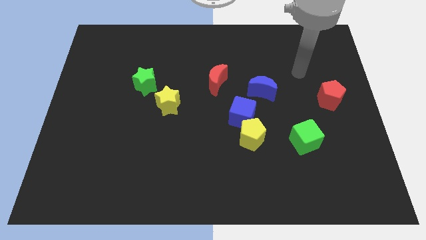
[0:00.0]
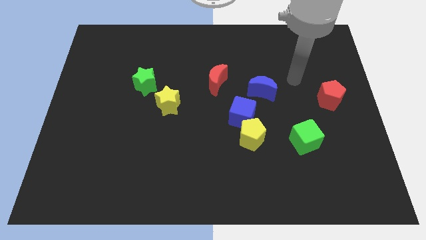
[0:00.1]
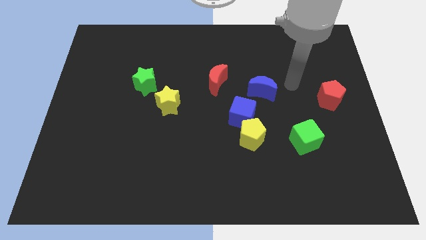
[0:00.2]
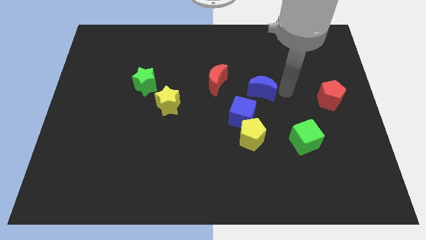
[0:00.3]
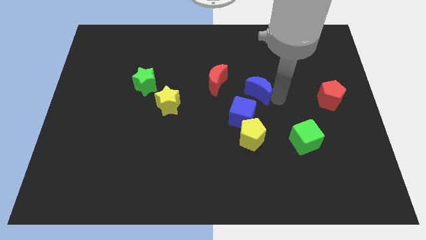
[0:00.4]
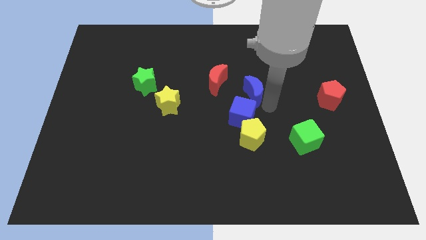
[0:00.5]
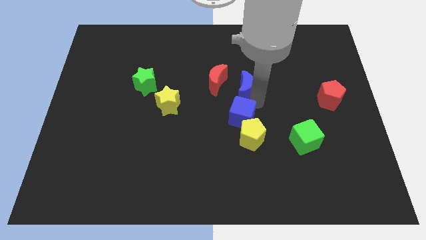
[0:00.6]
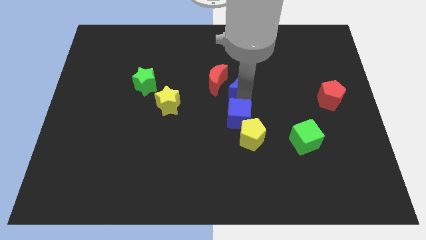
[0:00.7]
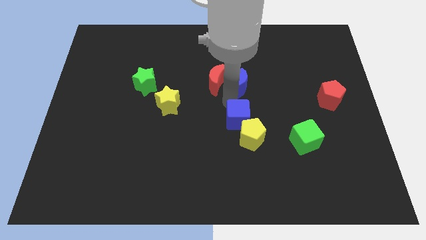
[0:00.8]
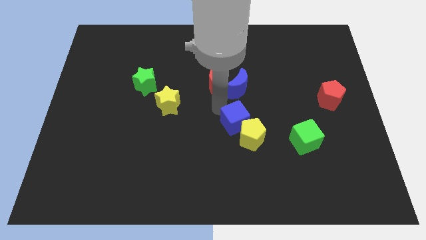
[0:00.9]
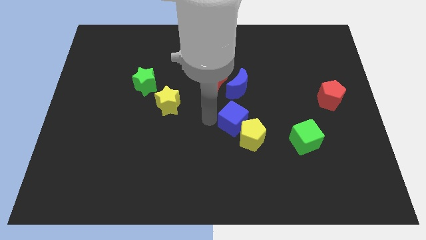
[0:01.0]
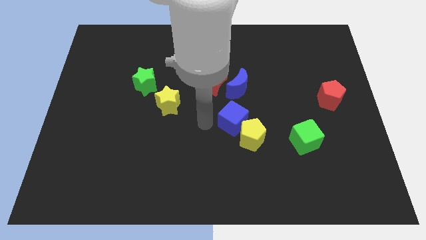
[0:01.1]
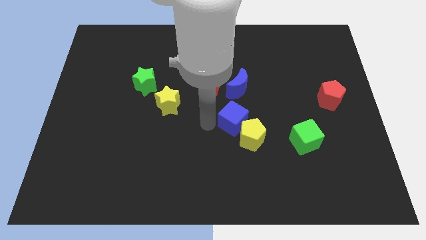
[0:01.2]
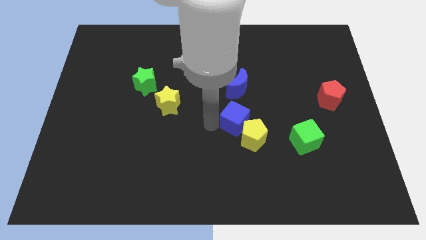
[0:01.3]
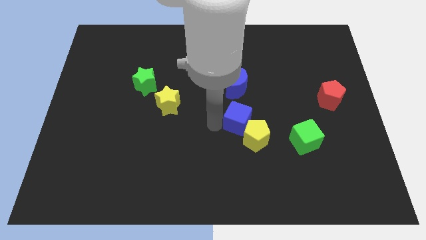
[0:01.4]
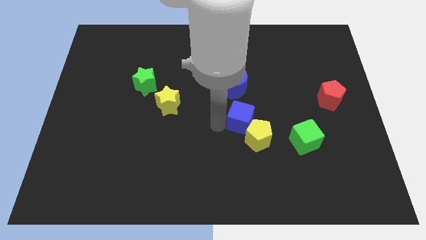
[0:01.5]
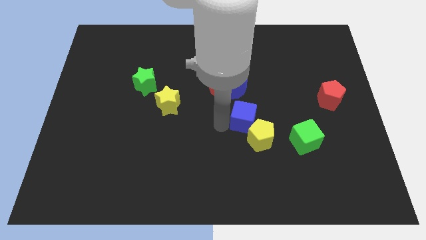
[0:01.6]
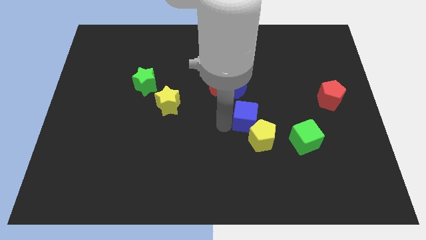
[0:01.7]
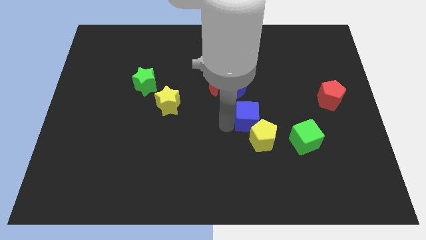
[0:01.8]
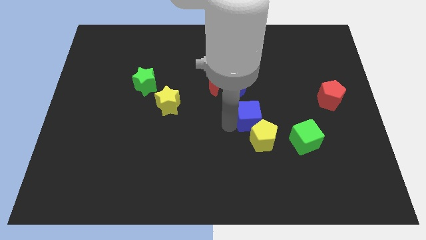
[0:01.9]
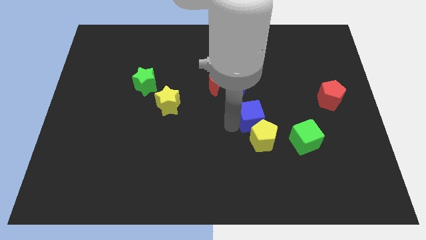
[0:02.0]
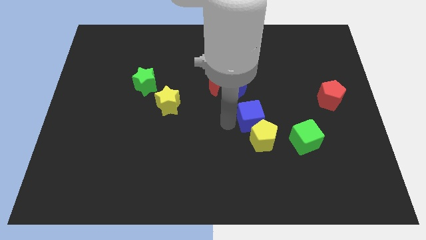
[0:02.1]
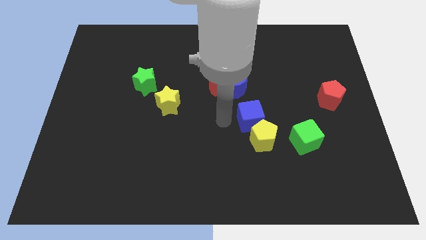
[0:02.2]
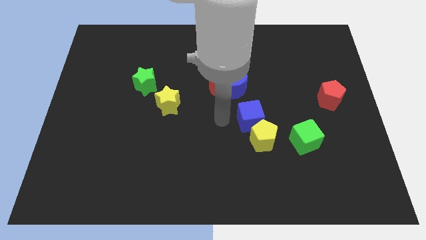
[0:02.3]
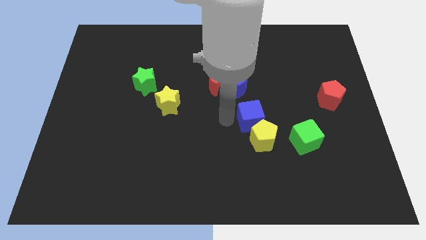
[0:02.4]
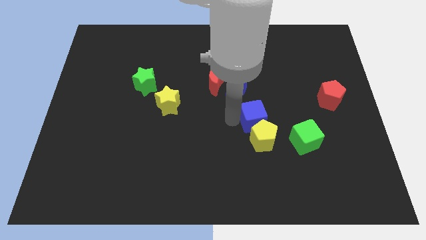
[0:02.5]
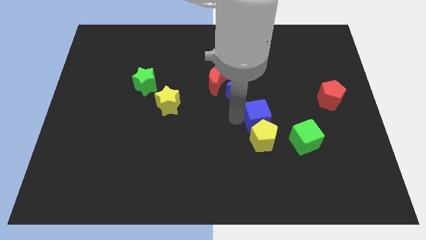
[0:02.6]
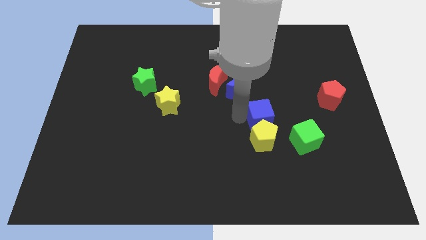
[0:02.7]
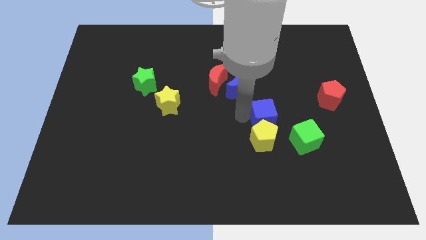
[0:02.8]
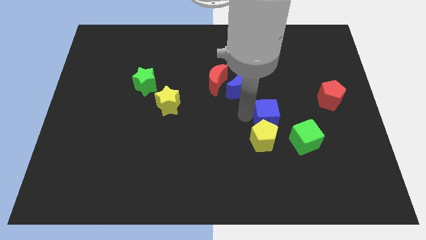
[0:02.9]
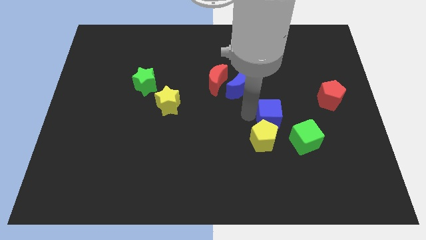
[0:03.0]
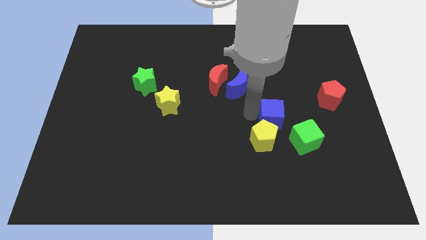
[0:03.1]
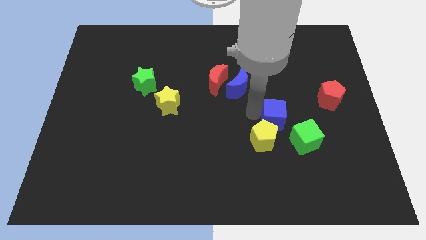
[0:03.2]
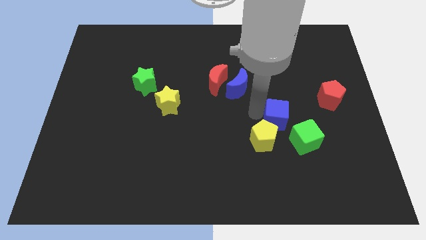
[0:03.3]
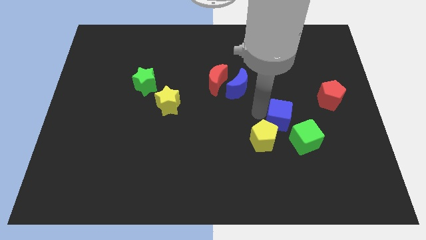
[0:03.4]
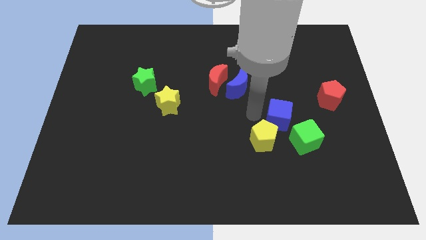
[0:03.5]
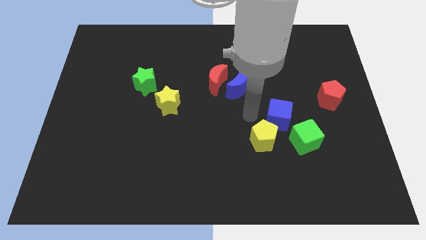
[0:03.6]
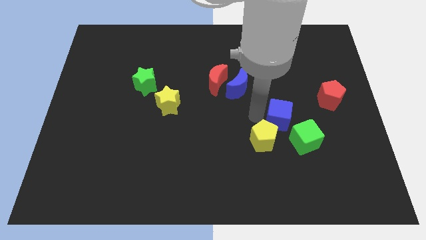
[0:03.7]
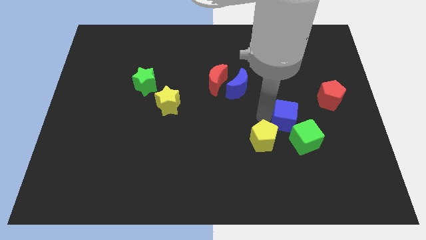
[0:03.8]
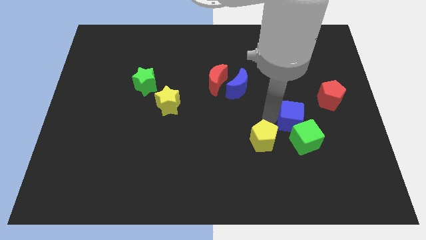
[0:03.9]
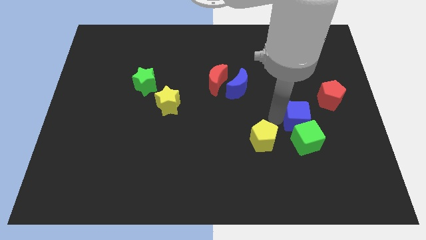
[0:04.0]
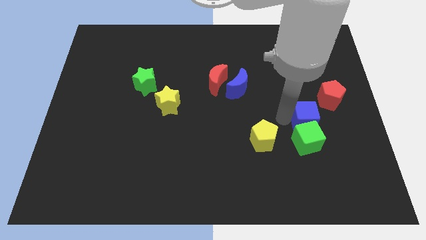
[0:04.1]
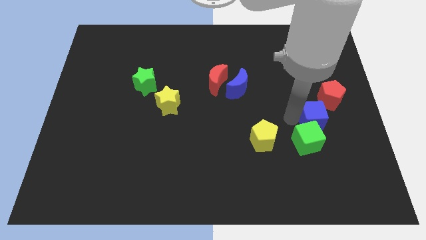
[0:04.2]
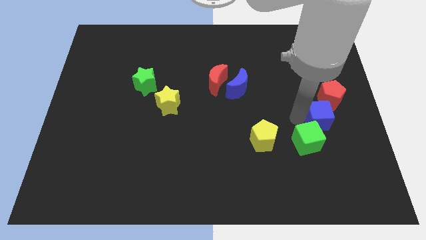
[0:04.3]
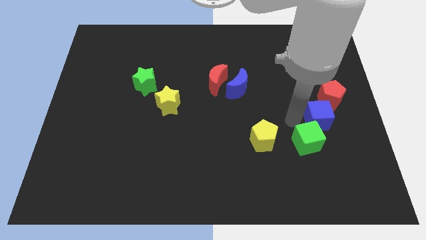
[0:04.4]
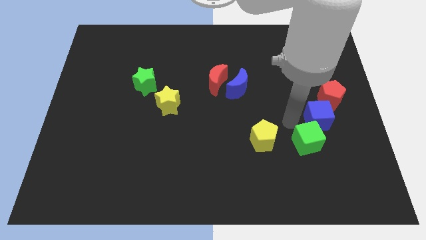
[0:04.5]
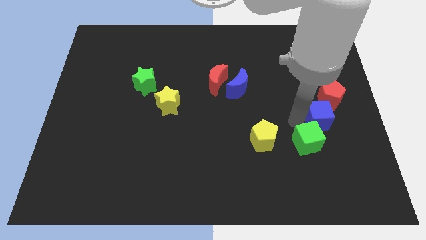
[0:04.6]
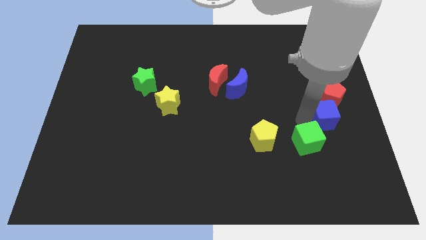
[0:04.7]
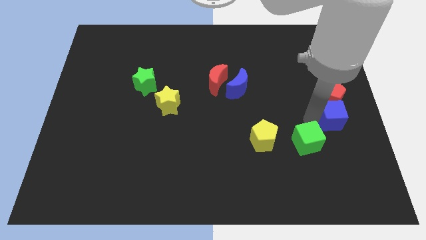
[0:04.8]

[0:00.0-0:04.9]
slide the blue cube to the center right

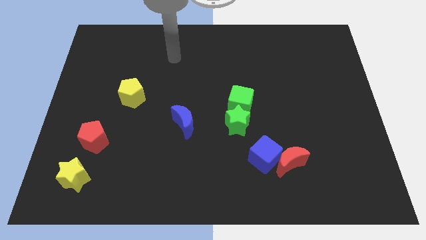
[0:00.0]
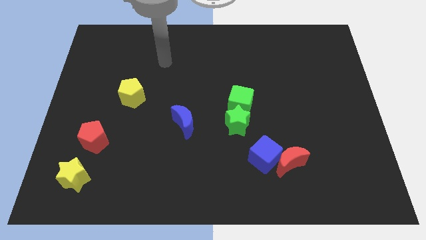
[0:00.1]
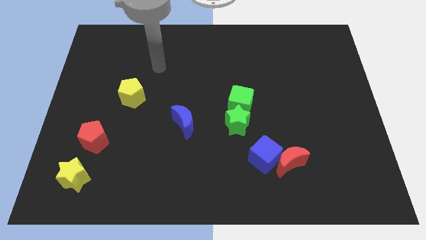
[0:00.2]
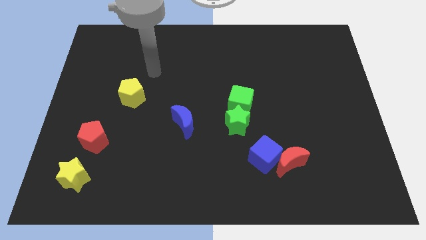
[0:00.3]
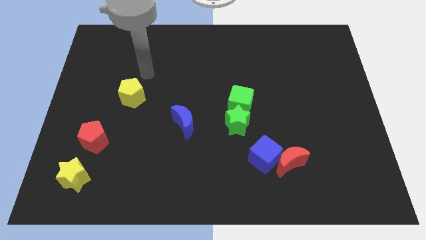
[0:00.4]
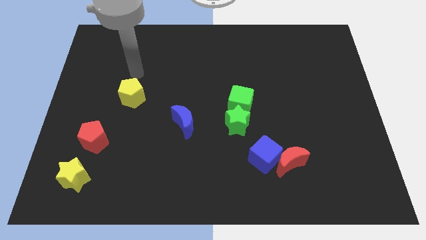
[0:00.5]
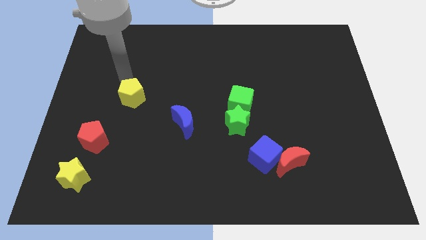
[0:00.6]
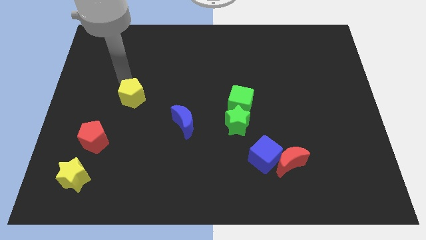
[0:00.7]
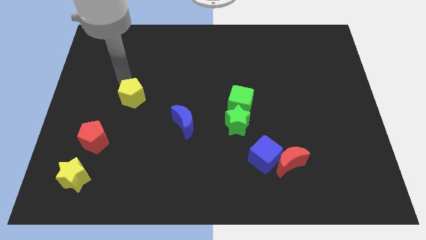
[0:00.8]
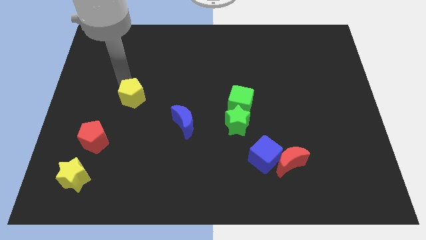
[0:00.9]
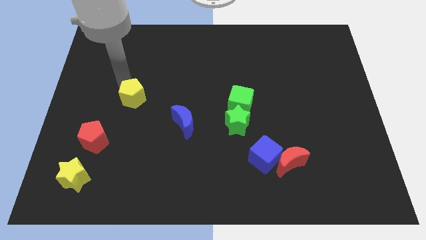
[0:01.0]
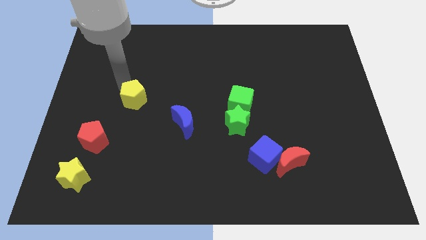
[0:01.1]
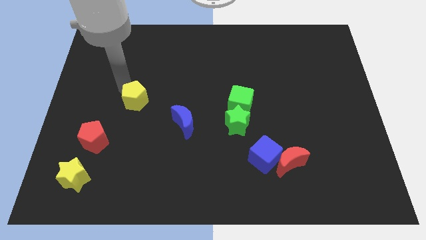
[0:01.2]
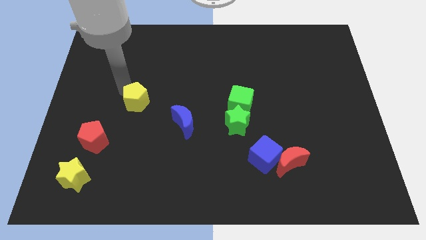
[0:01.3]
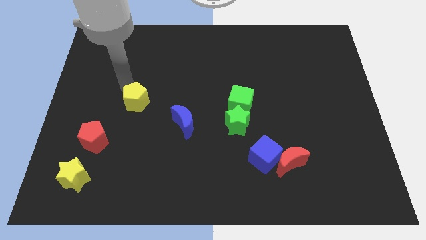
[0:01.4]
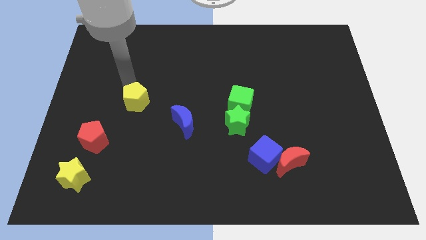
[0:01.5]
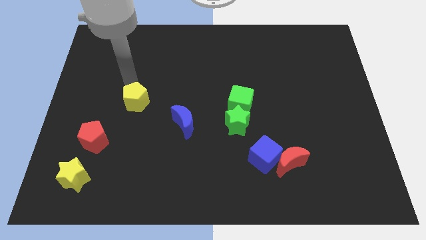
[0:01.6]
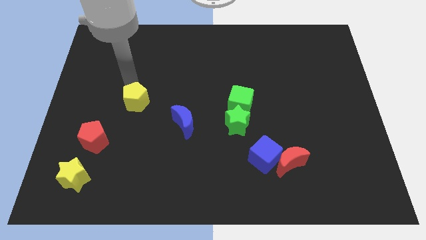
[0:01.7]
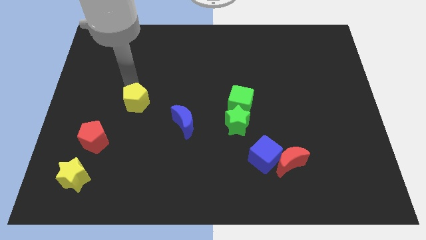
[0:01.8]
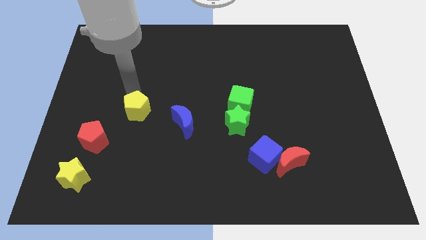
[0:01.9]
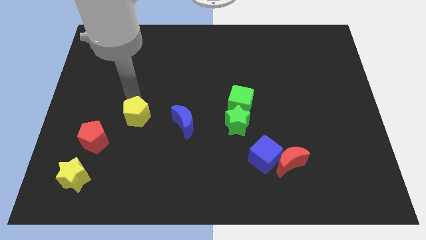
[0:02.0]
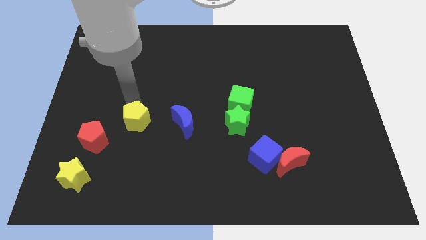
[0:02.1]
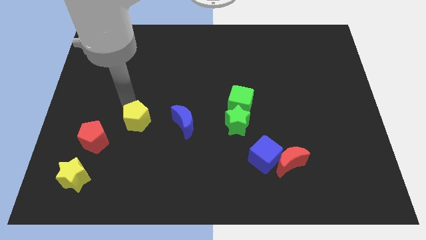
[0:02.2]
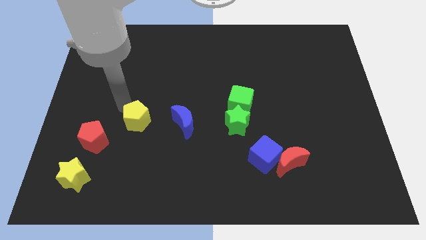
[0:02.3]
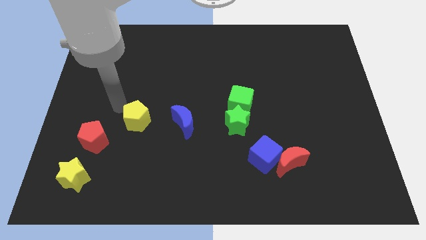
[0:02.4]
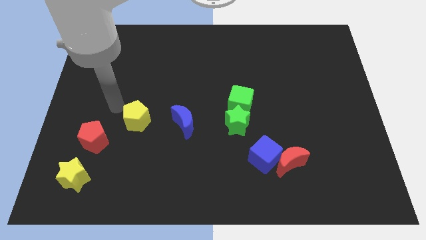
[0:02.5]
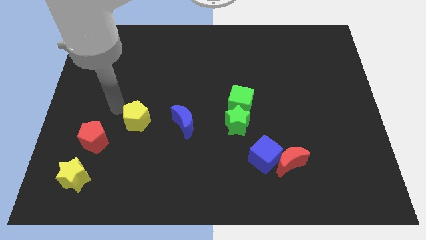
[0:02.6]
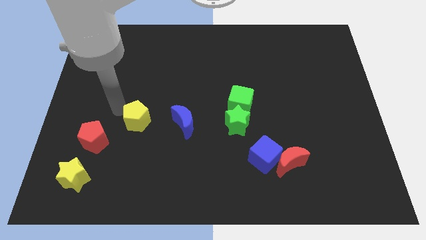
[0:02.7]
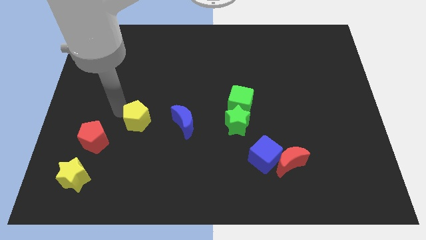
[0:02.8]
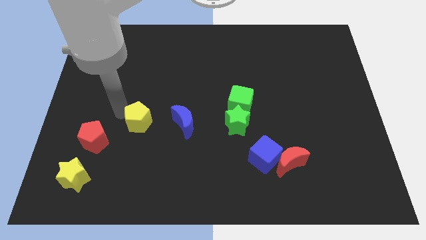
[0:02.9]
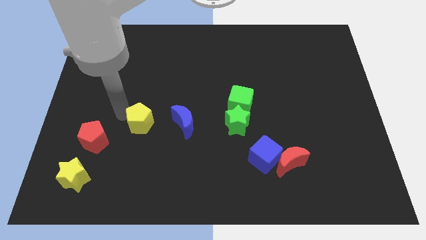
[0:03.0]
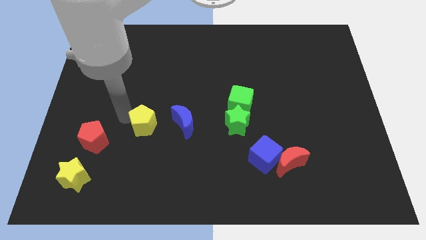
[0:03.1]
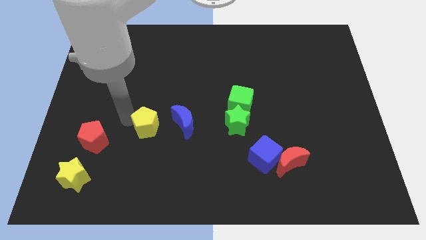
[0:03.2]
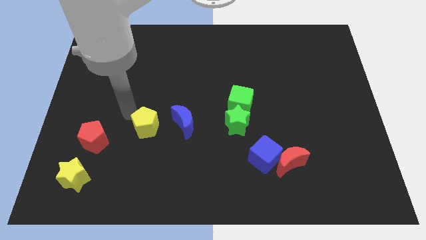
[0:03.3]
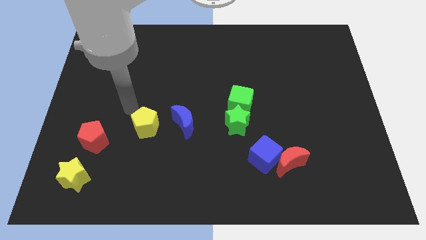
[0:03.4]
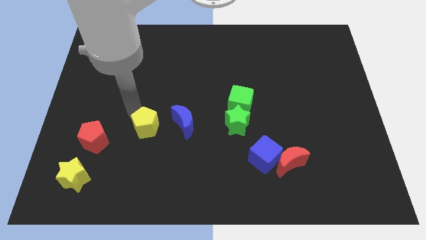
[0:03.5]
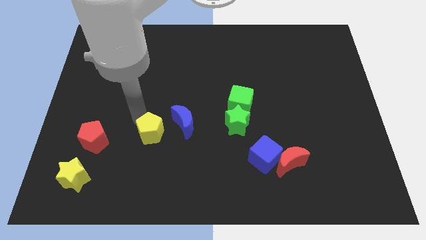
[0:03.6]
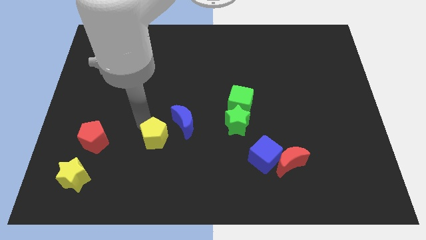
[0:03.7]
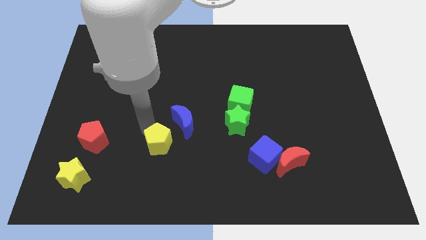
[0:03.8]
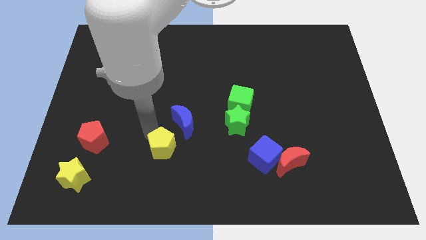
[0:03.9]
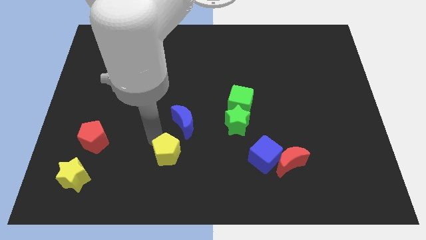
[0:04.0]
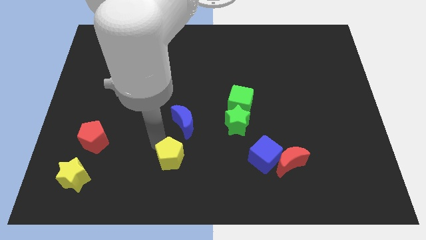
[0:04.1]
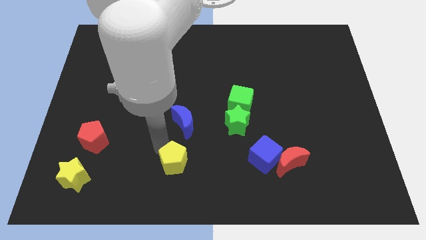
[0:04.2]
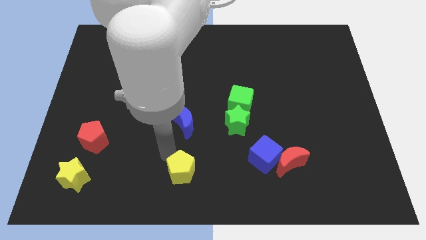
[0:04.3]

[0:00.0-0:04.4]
push the yellow pentagon to the bottom side
